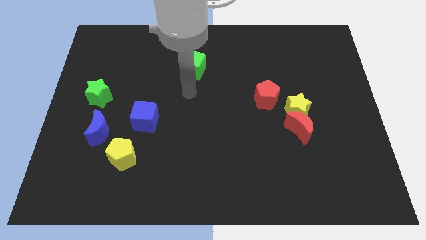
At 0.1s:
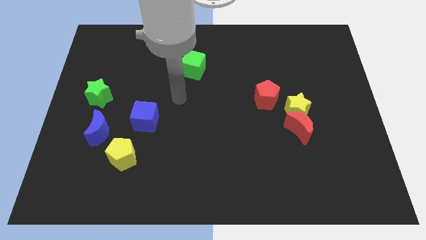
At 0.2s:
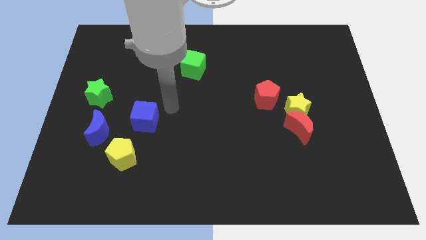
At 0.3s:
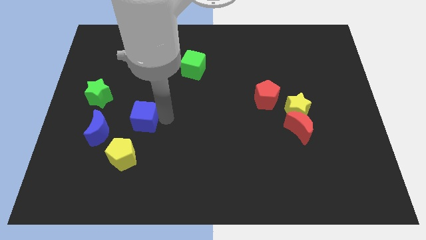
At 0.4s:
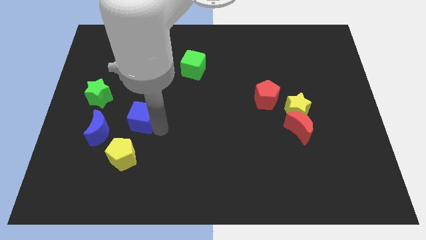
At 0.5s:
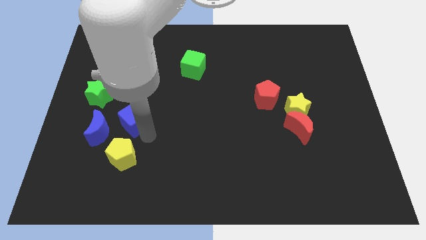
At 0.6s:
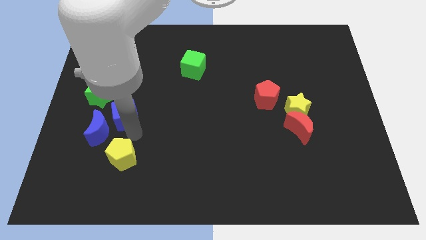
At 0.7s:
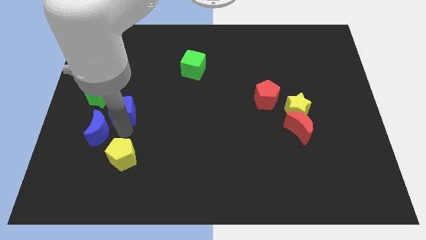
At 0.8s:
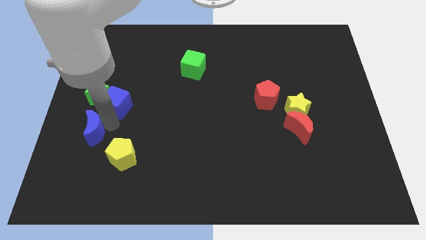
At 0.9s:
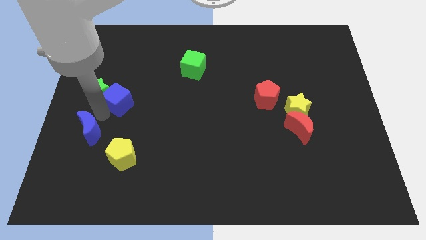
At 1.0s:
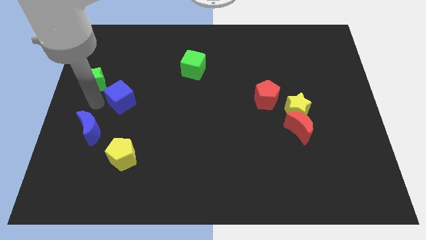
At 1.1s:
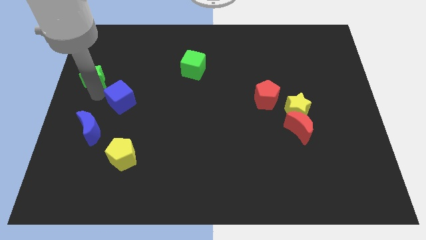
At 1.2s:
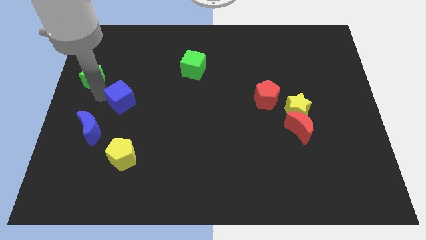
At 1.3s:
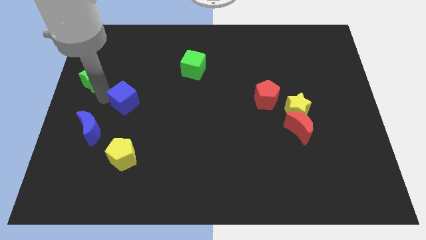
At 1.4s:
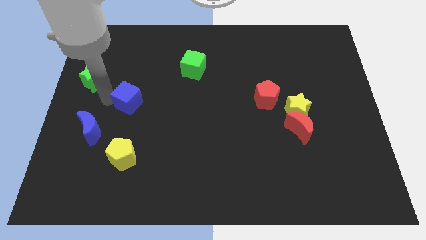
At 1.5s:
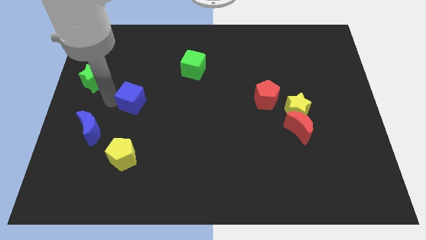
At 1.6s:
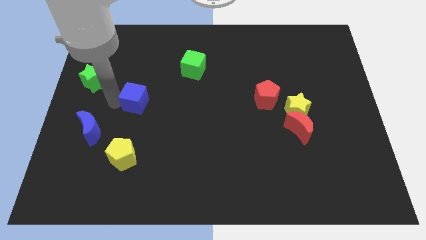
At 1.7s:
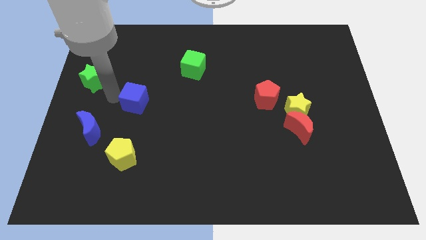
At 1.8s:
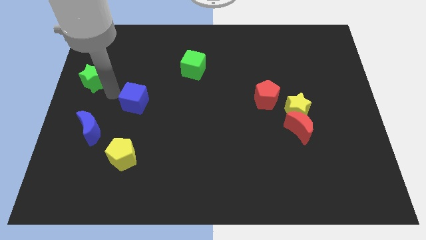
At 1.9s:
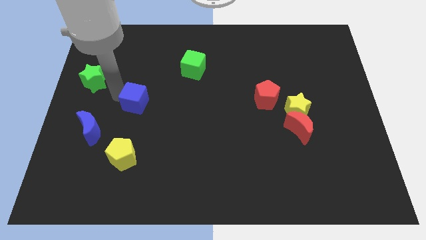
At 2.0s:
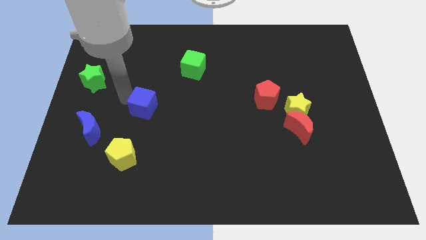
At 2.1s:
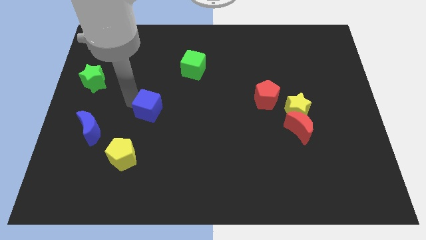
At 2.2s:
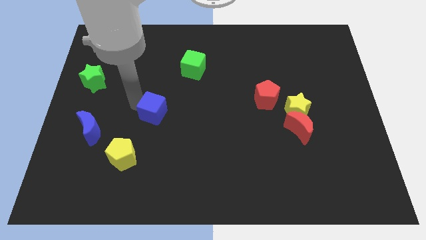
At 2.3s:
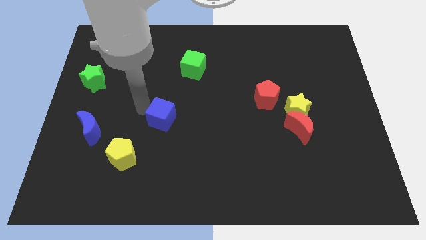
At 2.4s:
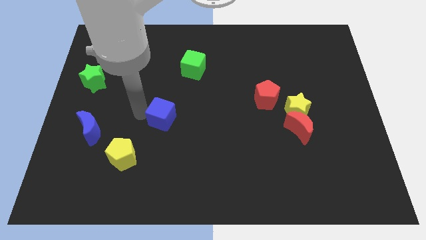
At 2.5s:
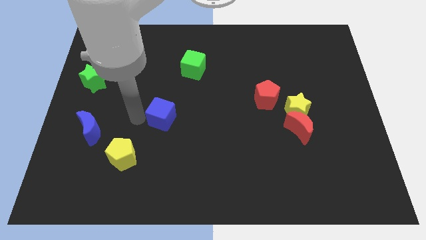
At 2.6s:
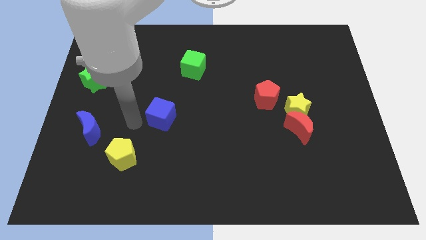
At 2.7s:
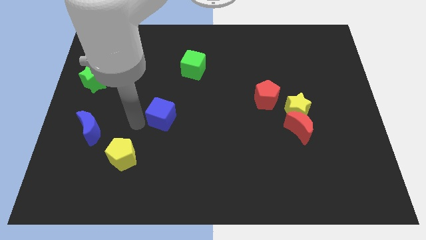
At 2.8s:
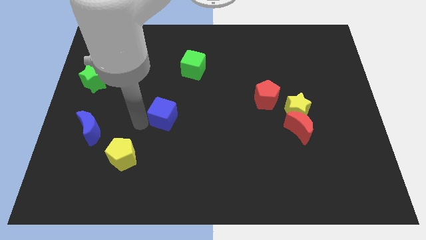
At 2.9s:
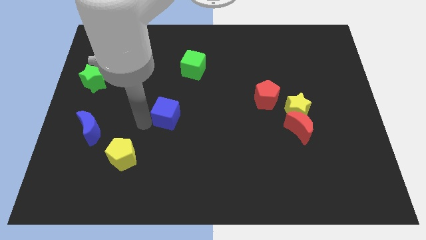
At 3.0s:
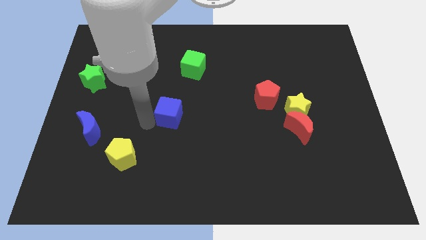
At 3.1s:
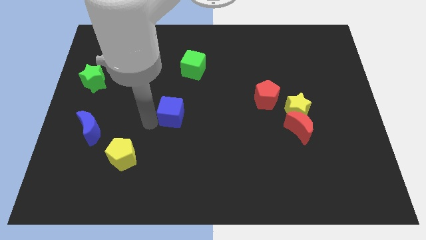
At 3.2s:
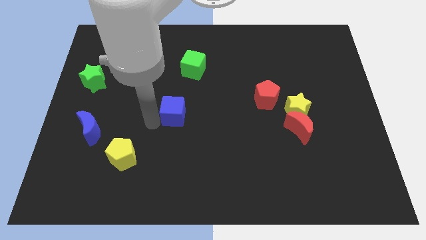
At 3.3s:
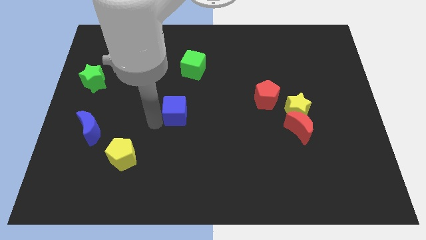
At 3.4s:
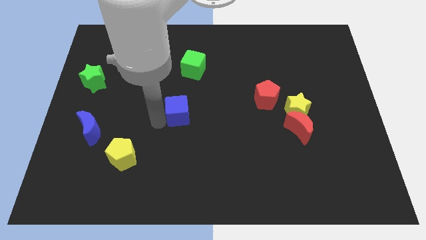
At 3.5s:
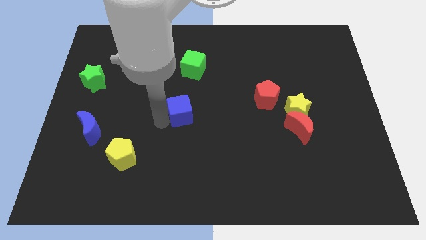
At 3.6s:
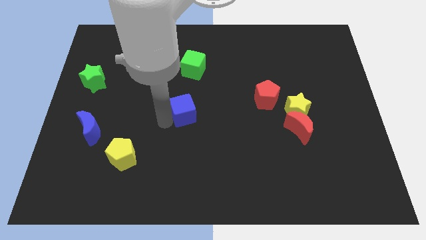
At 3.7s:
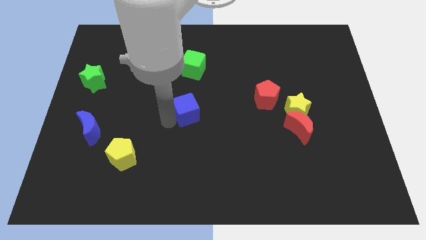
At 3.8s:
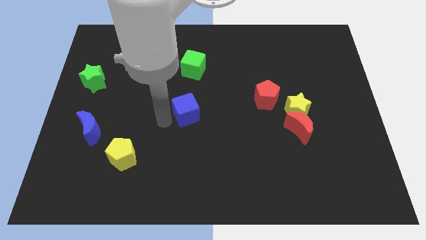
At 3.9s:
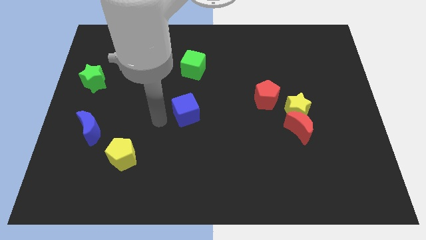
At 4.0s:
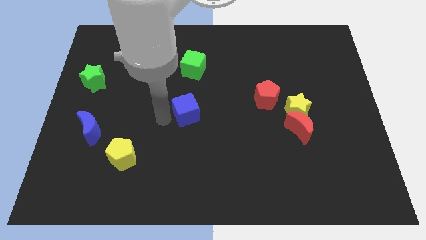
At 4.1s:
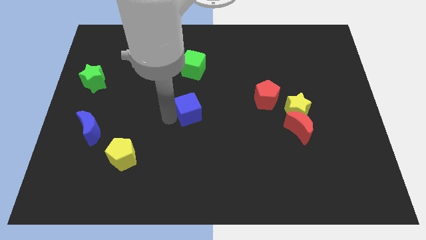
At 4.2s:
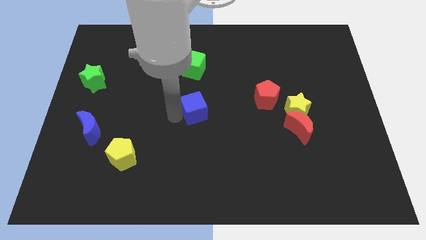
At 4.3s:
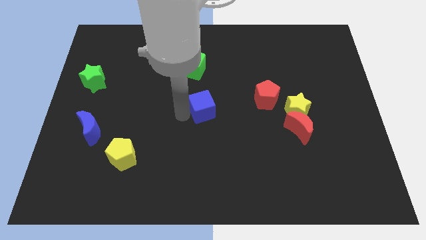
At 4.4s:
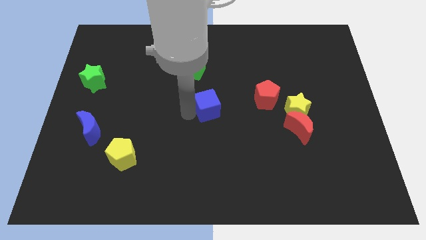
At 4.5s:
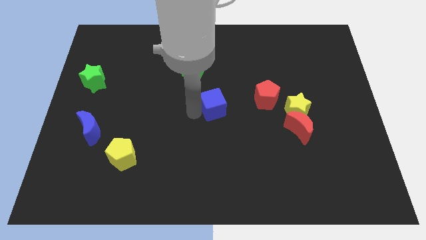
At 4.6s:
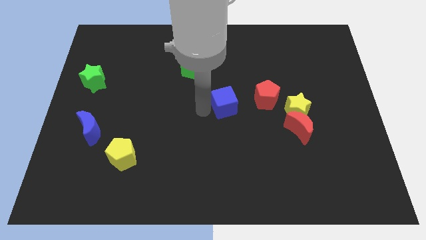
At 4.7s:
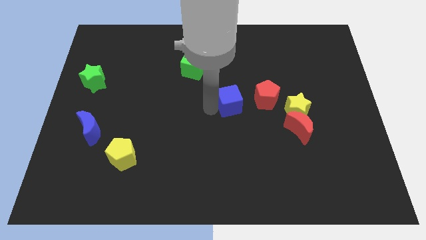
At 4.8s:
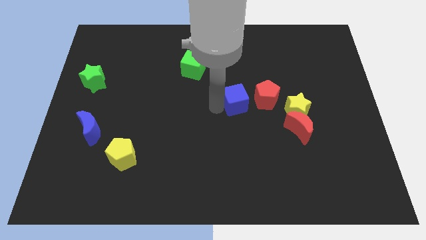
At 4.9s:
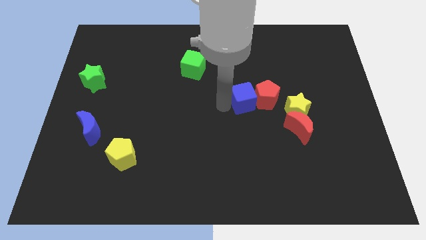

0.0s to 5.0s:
push the blue cube close to the red pentagon

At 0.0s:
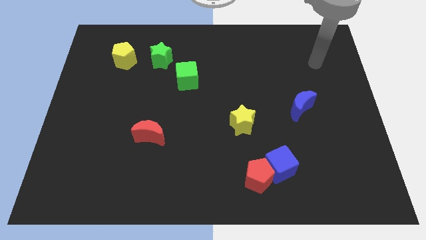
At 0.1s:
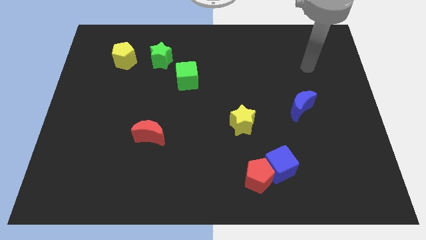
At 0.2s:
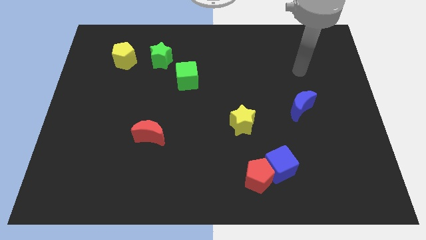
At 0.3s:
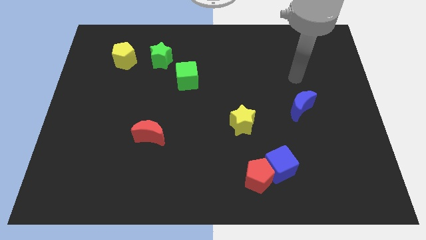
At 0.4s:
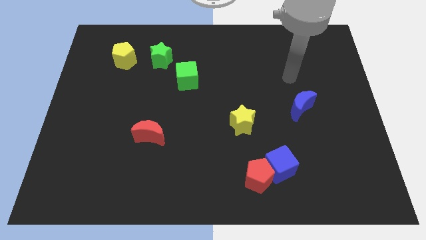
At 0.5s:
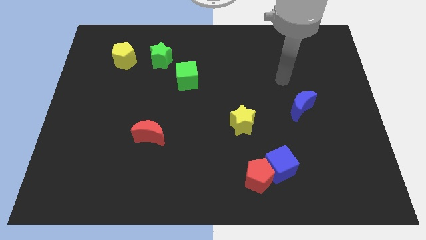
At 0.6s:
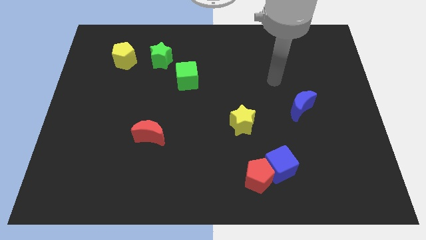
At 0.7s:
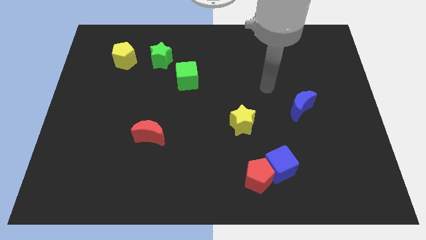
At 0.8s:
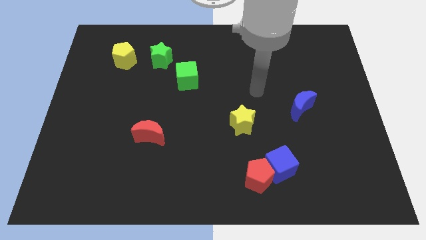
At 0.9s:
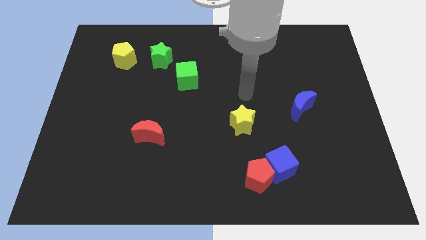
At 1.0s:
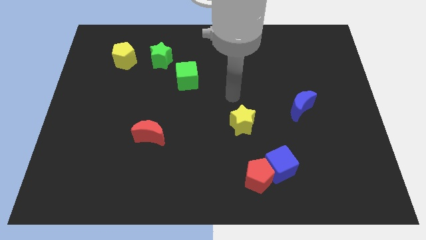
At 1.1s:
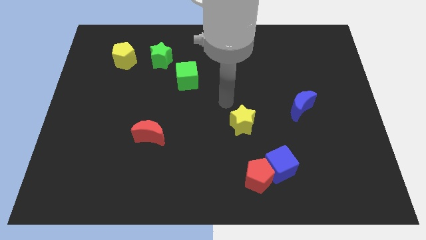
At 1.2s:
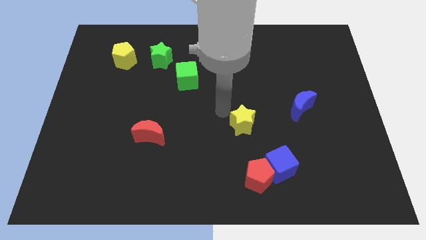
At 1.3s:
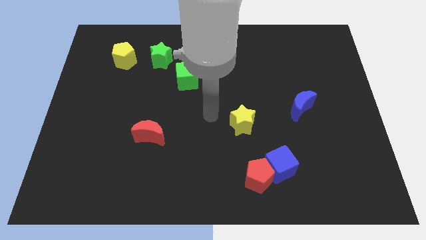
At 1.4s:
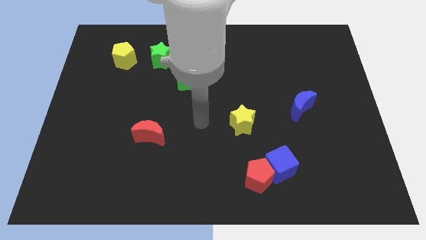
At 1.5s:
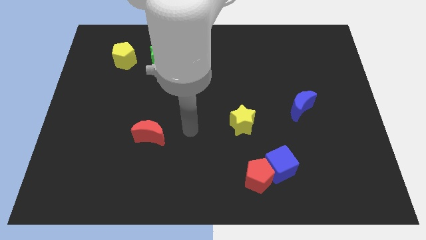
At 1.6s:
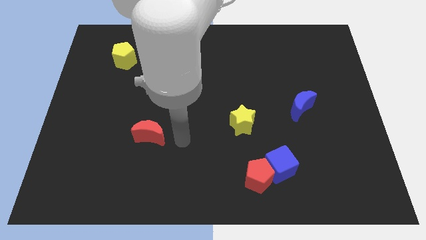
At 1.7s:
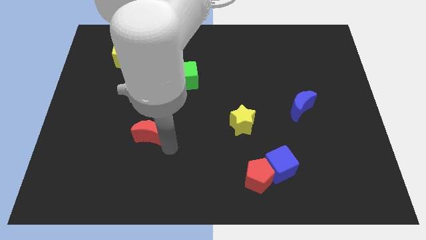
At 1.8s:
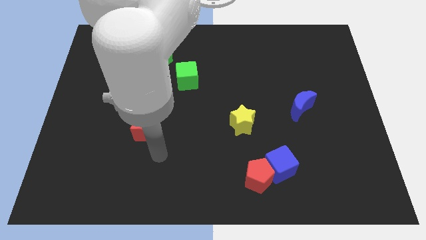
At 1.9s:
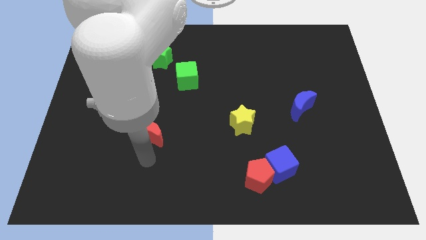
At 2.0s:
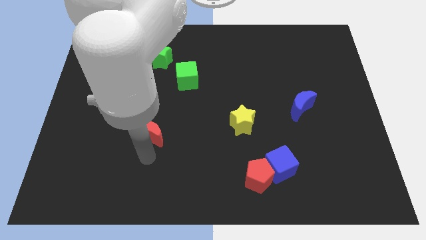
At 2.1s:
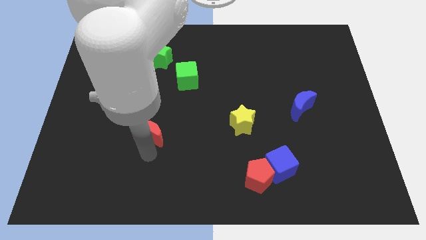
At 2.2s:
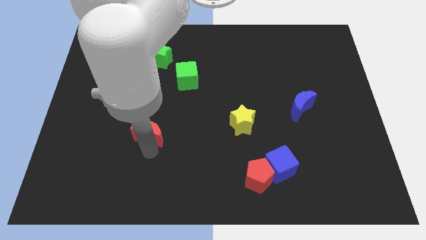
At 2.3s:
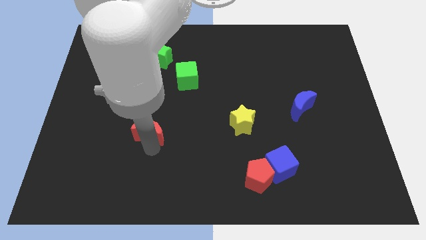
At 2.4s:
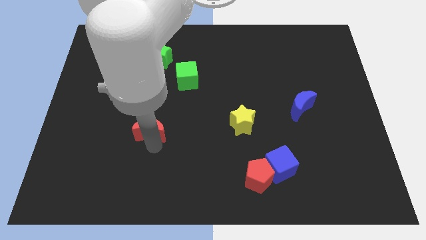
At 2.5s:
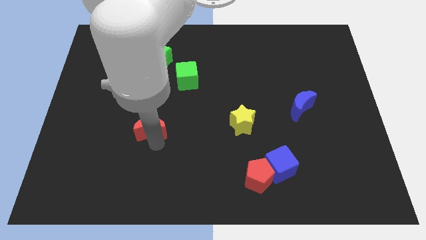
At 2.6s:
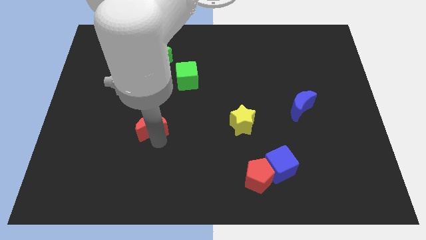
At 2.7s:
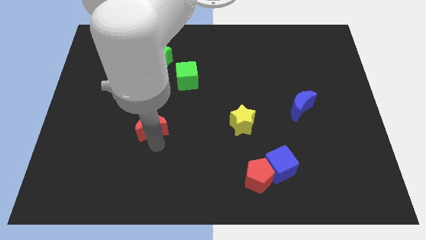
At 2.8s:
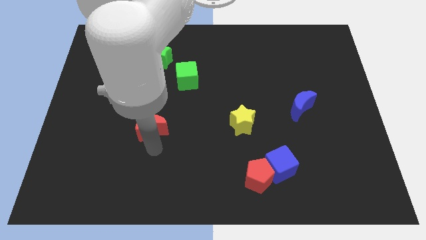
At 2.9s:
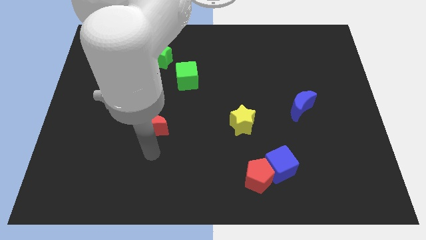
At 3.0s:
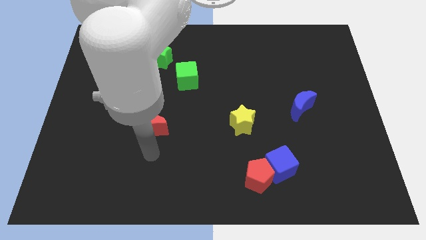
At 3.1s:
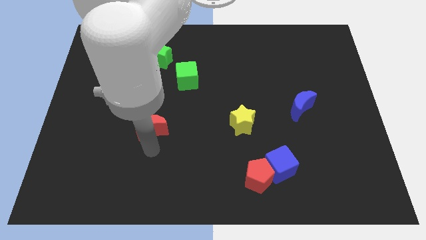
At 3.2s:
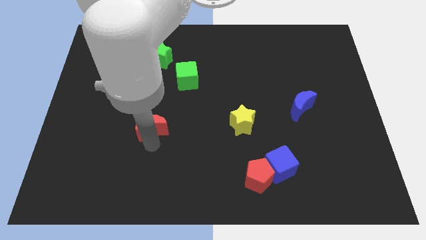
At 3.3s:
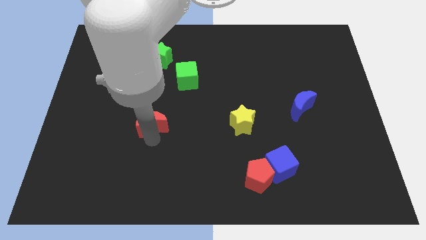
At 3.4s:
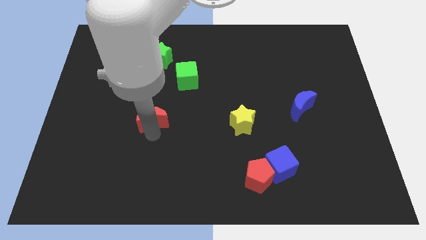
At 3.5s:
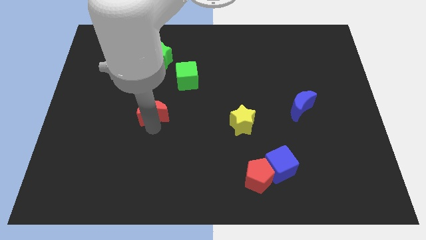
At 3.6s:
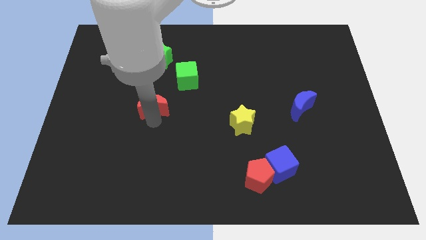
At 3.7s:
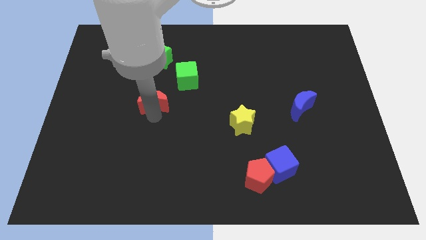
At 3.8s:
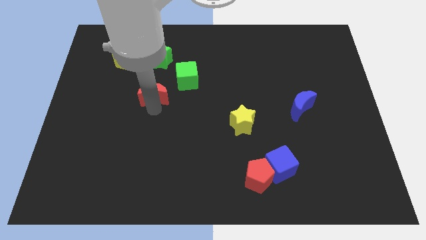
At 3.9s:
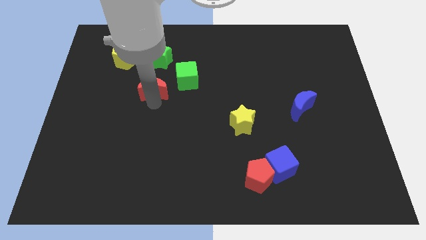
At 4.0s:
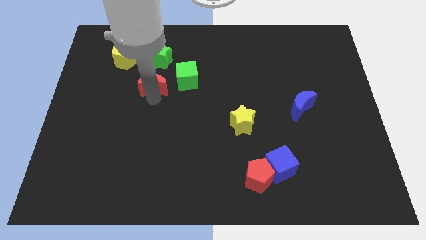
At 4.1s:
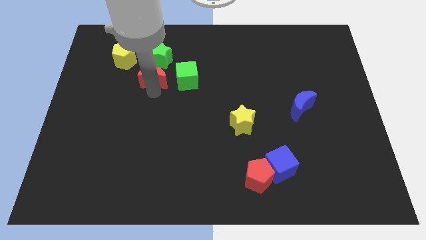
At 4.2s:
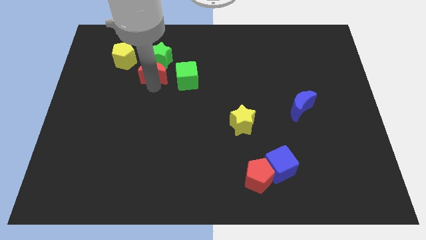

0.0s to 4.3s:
slide the red moon next to the green star
